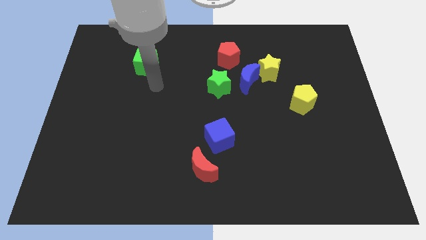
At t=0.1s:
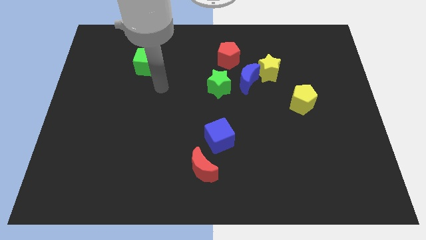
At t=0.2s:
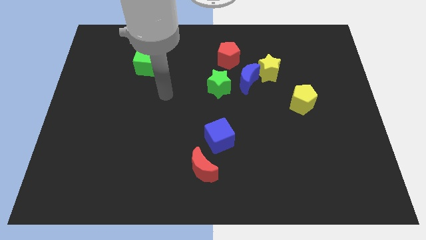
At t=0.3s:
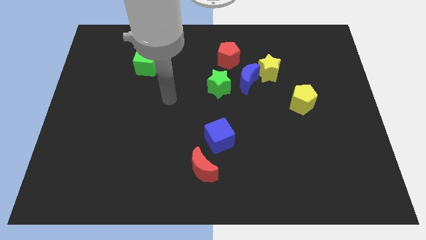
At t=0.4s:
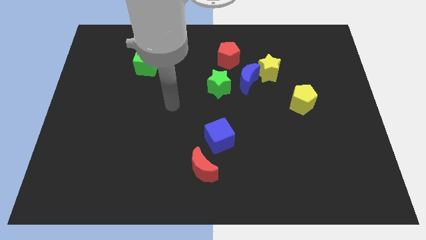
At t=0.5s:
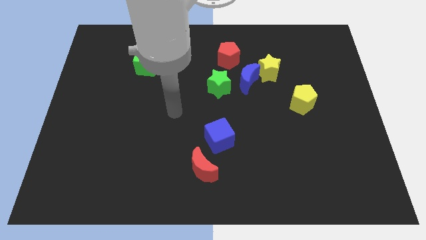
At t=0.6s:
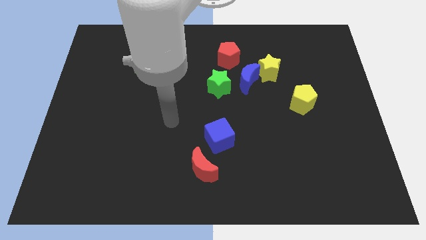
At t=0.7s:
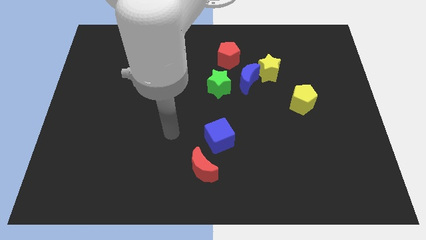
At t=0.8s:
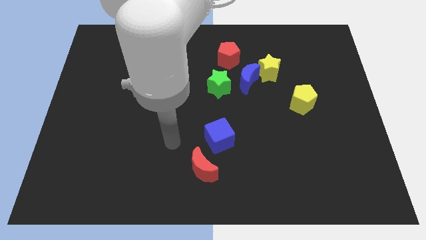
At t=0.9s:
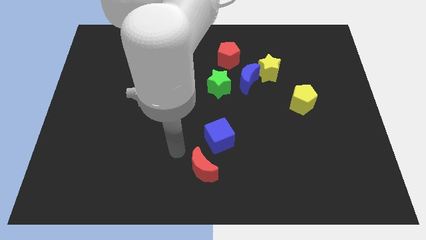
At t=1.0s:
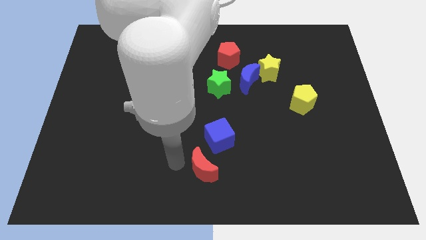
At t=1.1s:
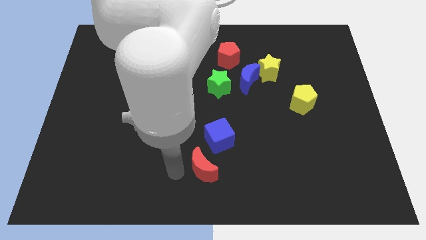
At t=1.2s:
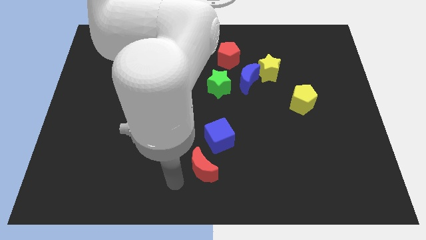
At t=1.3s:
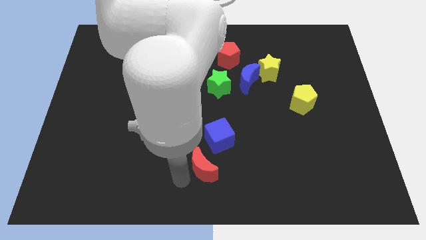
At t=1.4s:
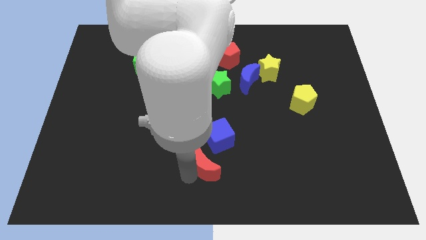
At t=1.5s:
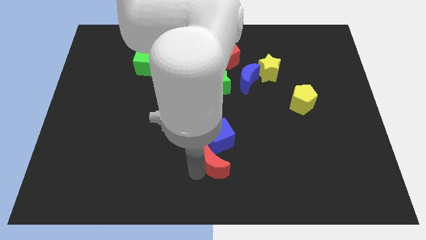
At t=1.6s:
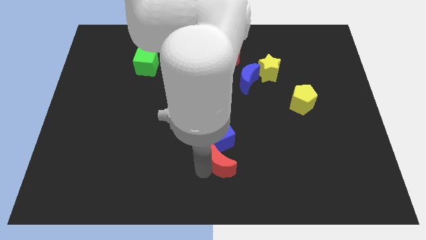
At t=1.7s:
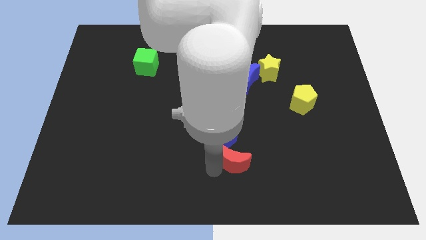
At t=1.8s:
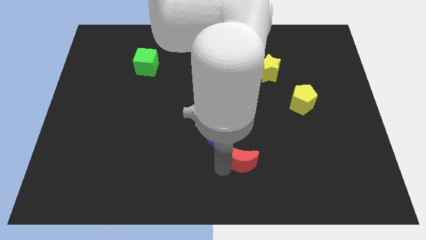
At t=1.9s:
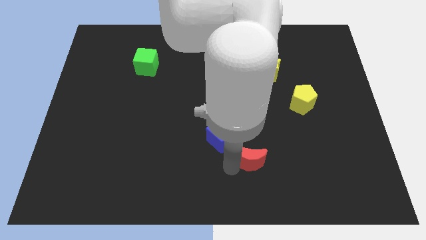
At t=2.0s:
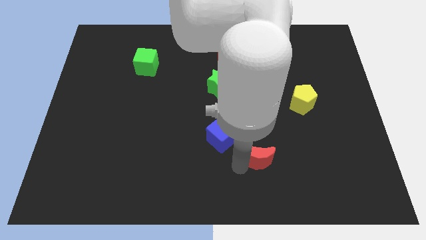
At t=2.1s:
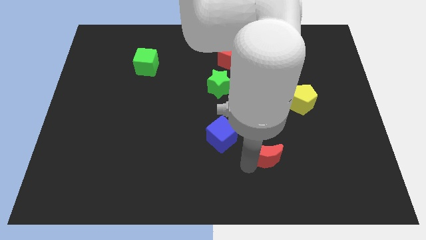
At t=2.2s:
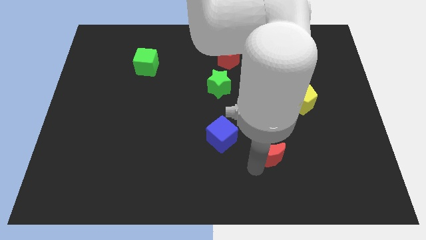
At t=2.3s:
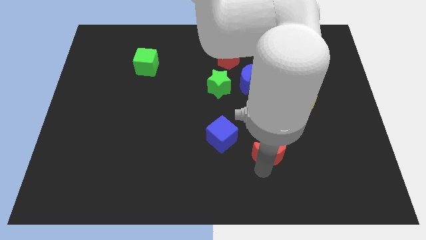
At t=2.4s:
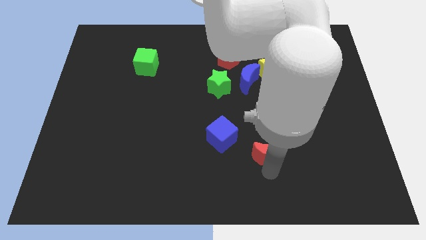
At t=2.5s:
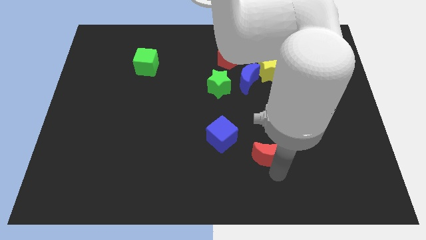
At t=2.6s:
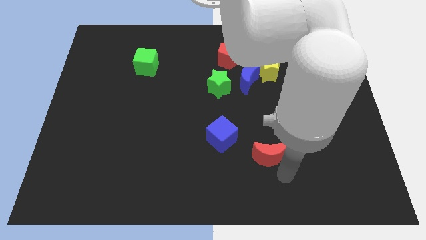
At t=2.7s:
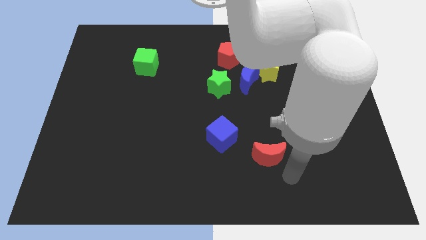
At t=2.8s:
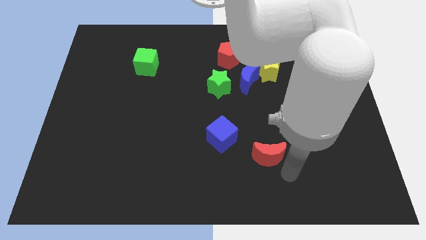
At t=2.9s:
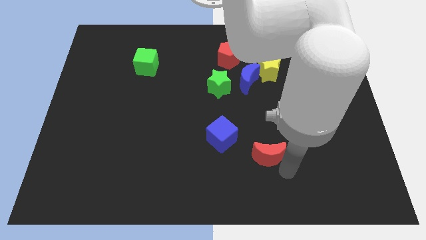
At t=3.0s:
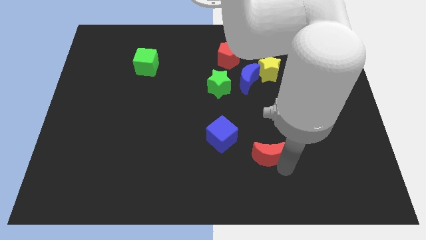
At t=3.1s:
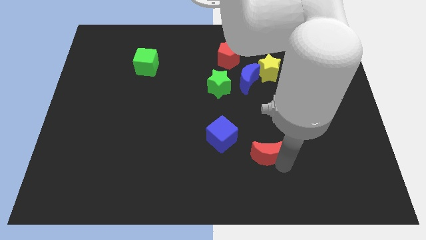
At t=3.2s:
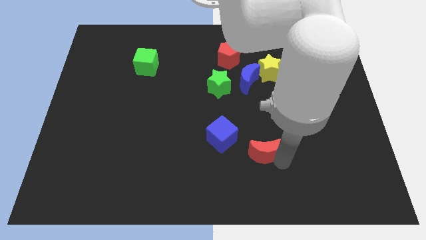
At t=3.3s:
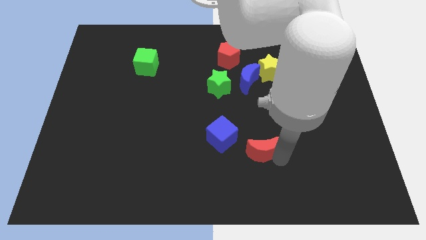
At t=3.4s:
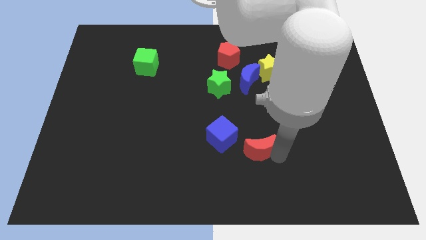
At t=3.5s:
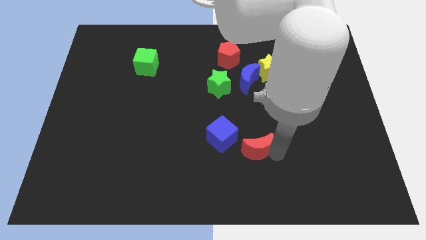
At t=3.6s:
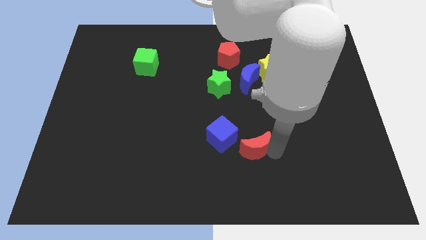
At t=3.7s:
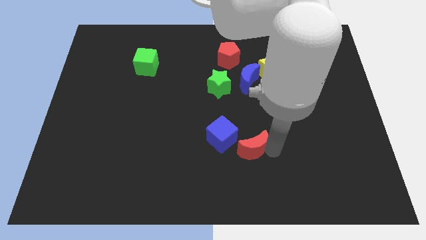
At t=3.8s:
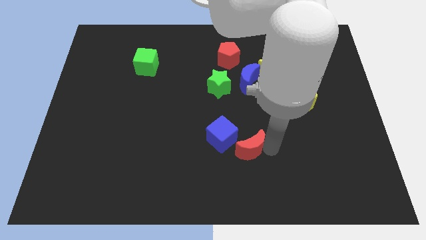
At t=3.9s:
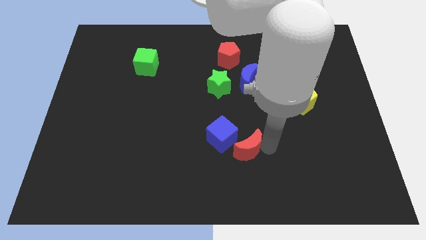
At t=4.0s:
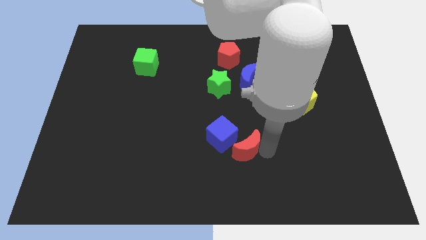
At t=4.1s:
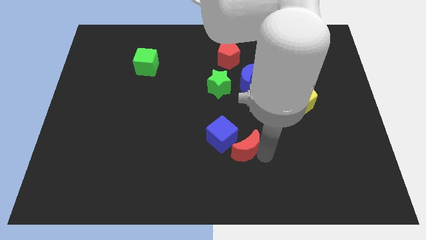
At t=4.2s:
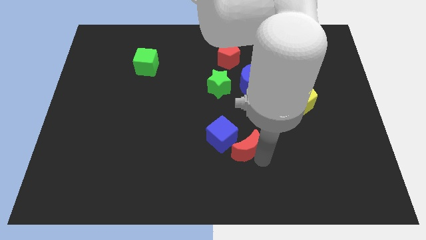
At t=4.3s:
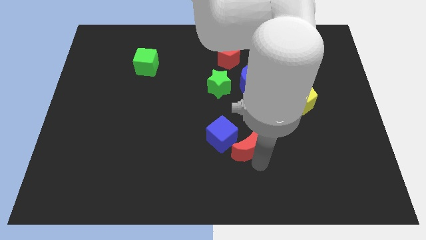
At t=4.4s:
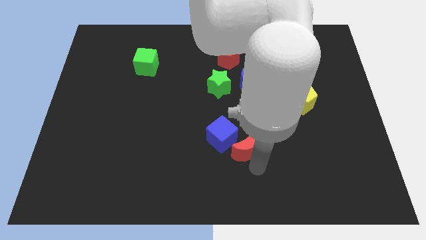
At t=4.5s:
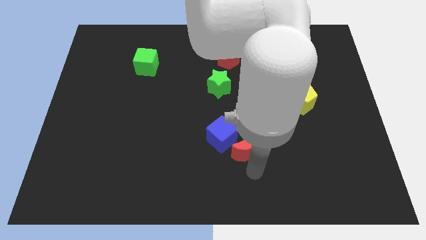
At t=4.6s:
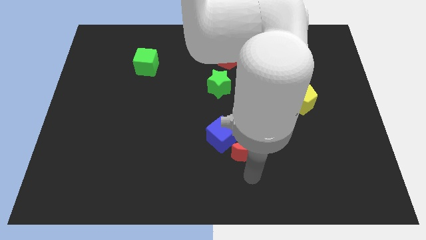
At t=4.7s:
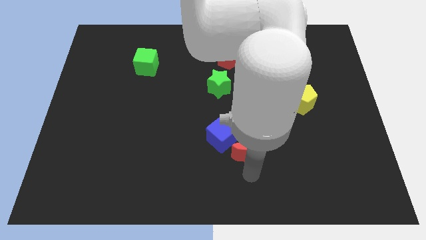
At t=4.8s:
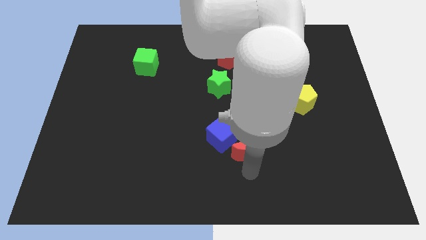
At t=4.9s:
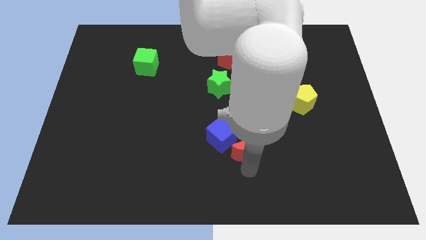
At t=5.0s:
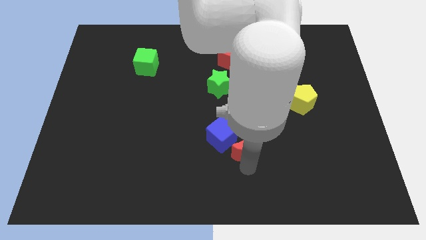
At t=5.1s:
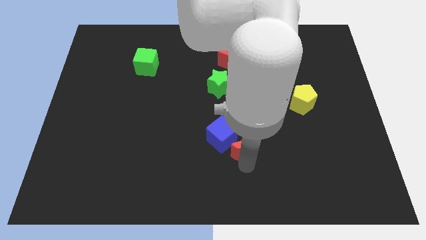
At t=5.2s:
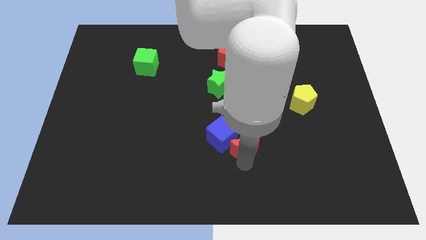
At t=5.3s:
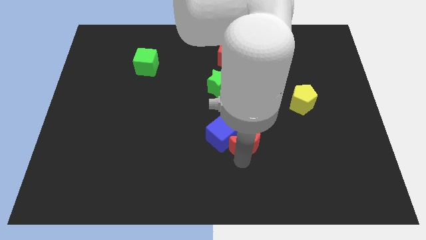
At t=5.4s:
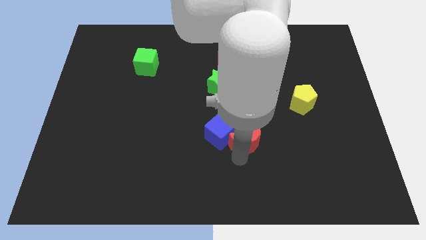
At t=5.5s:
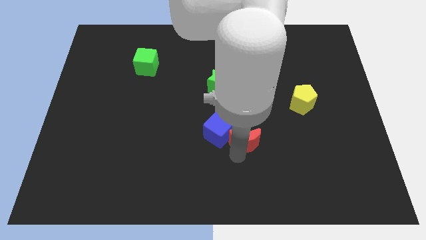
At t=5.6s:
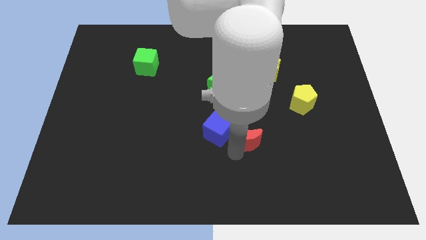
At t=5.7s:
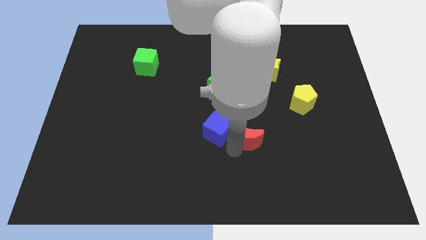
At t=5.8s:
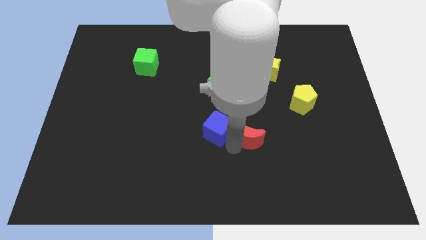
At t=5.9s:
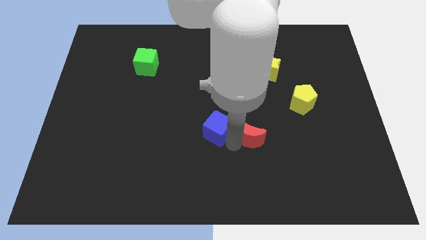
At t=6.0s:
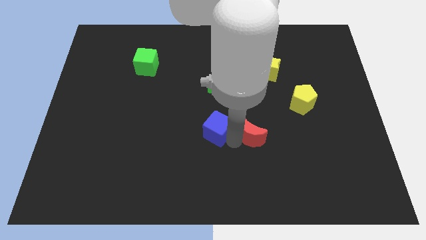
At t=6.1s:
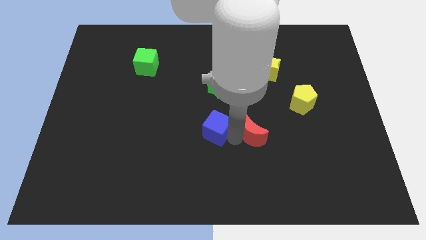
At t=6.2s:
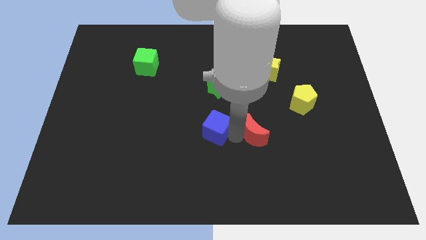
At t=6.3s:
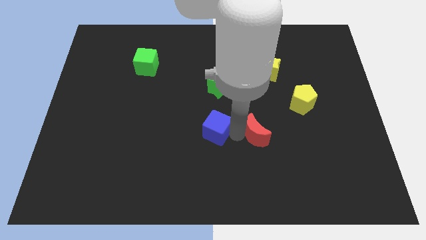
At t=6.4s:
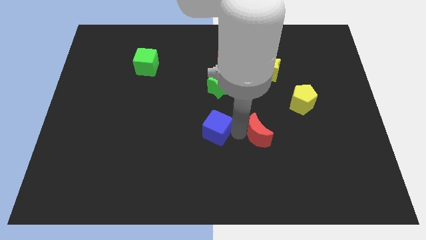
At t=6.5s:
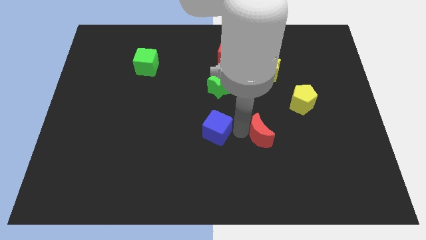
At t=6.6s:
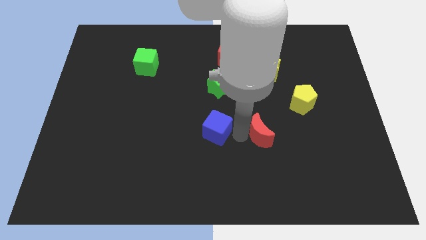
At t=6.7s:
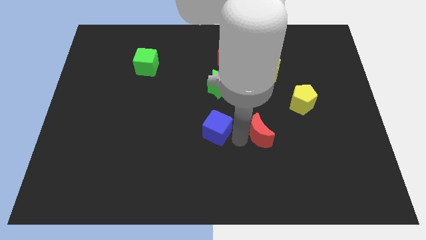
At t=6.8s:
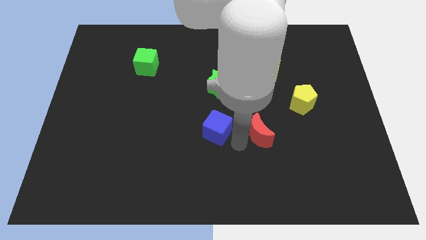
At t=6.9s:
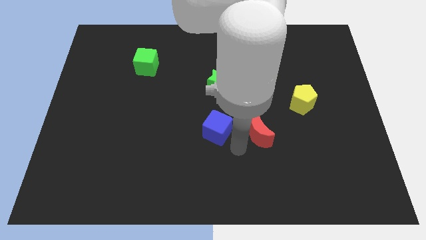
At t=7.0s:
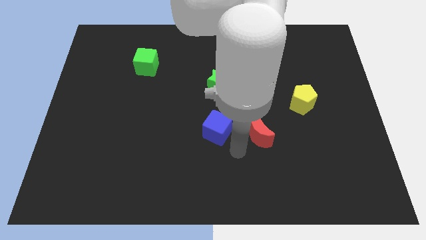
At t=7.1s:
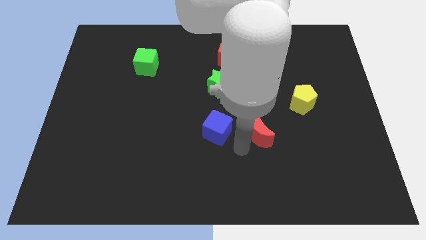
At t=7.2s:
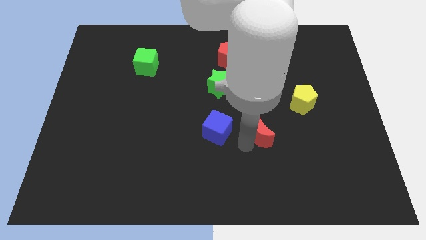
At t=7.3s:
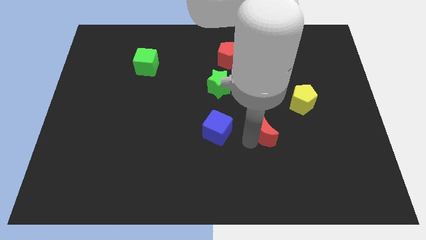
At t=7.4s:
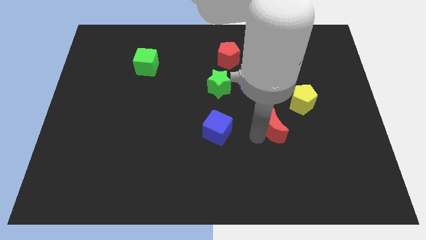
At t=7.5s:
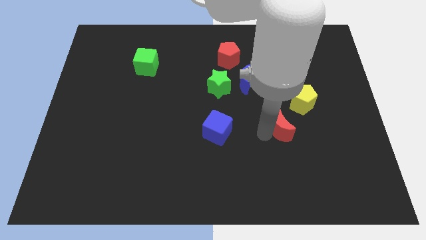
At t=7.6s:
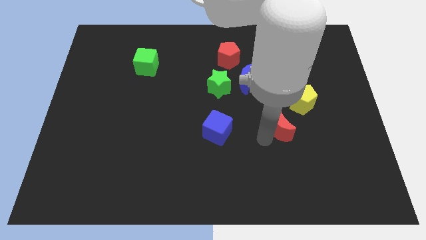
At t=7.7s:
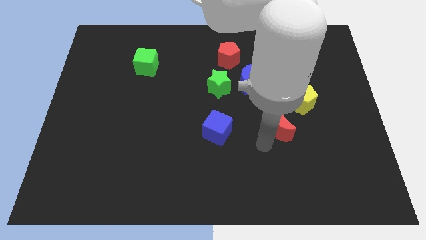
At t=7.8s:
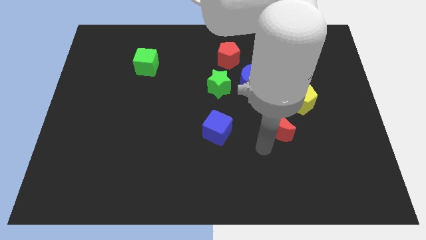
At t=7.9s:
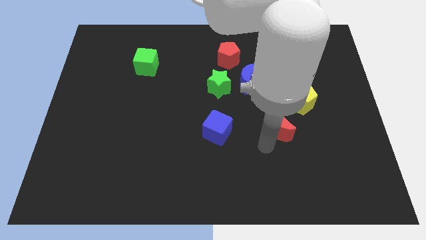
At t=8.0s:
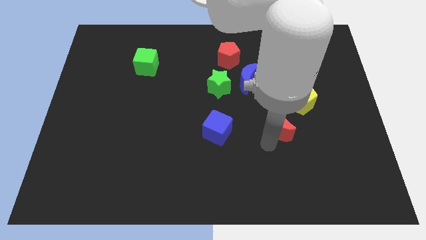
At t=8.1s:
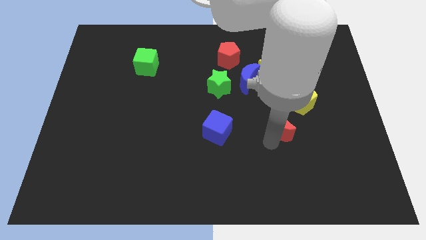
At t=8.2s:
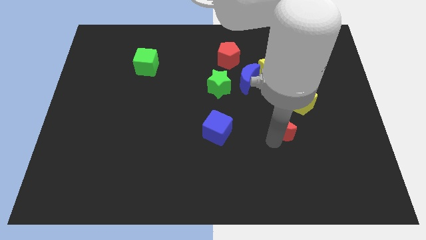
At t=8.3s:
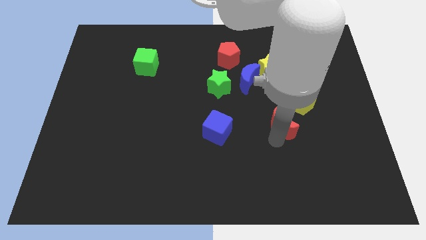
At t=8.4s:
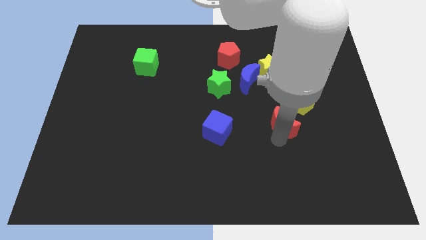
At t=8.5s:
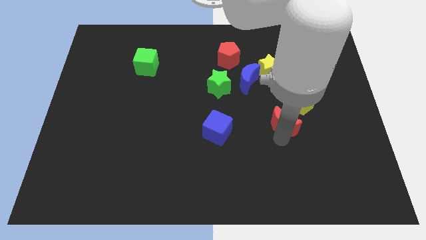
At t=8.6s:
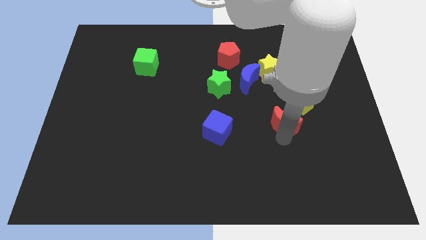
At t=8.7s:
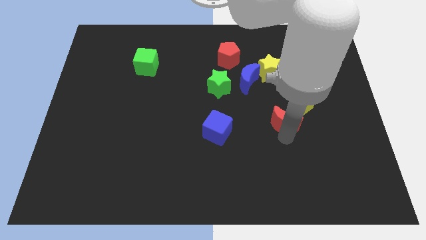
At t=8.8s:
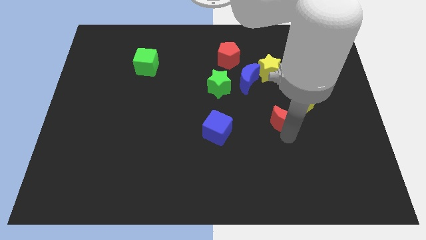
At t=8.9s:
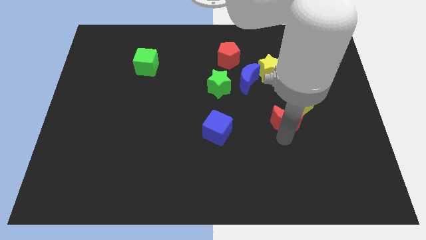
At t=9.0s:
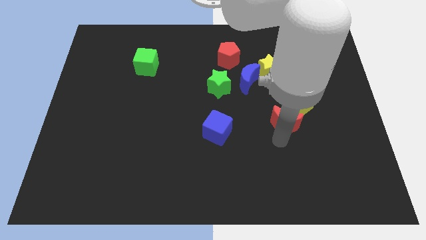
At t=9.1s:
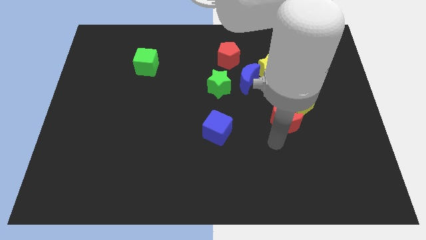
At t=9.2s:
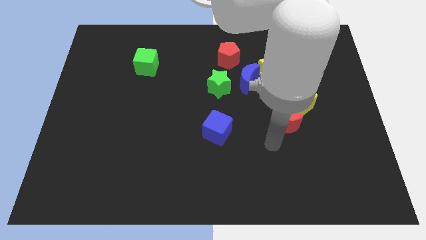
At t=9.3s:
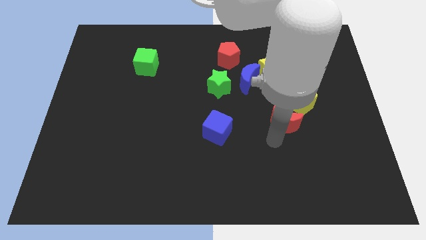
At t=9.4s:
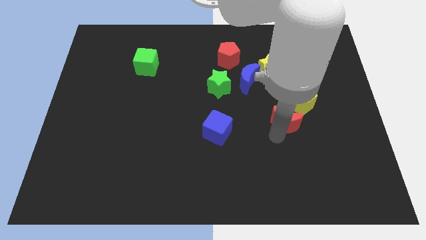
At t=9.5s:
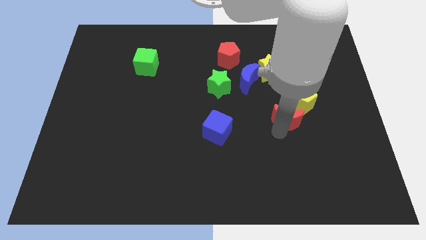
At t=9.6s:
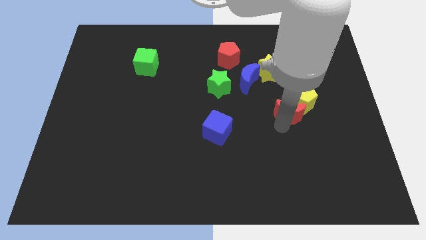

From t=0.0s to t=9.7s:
slide the red moon next to the yellow pentagon
